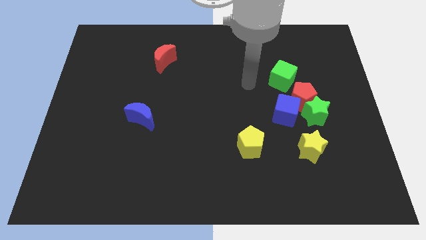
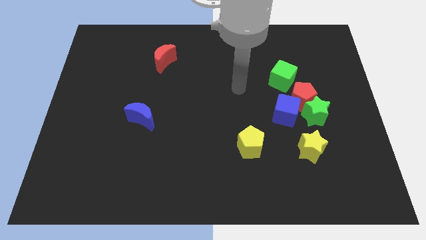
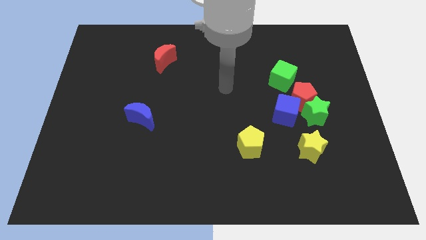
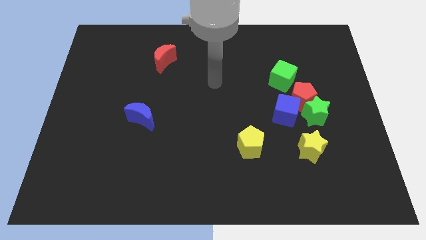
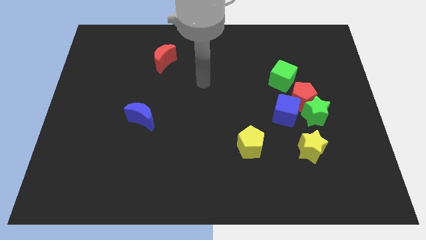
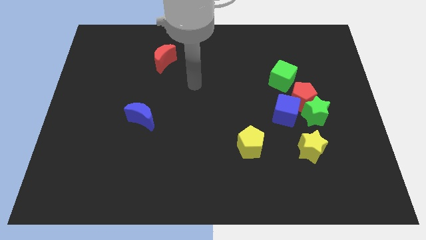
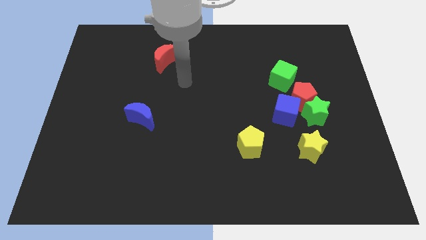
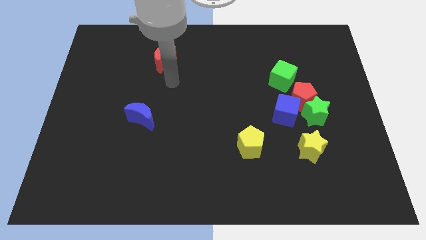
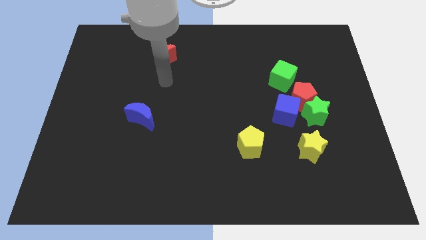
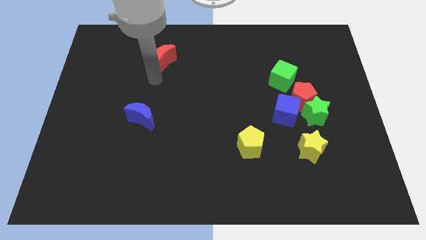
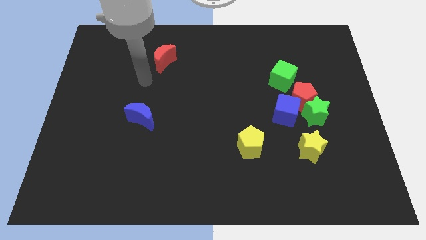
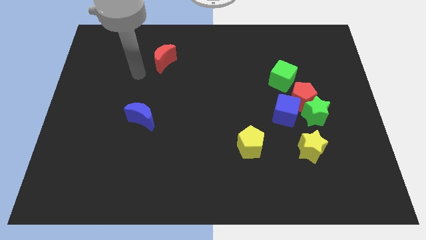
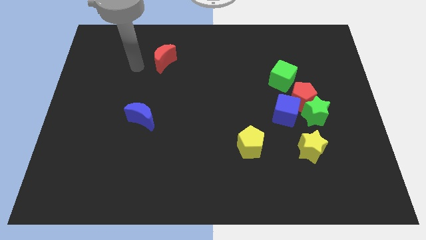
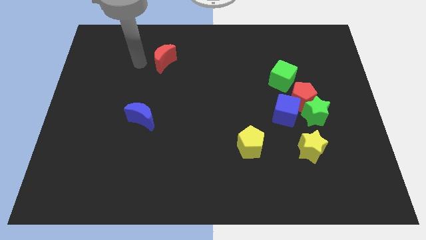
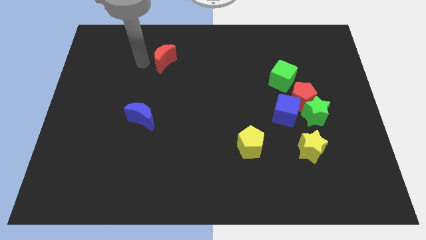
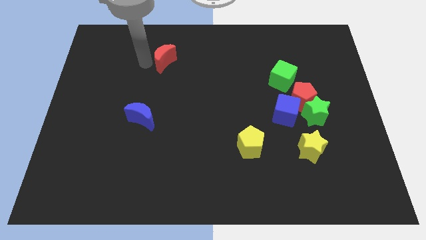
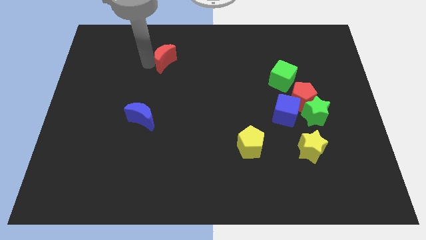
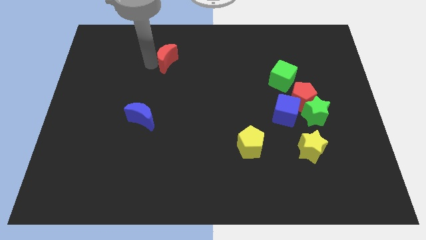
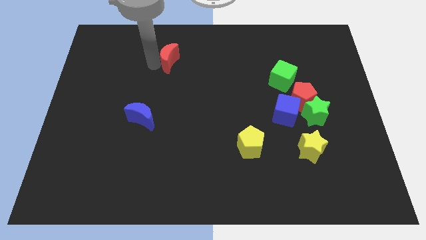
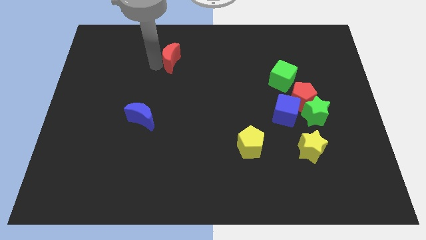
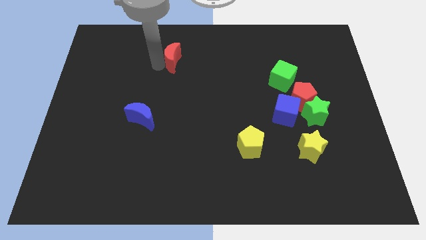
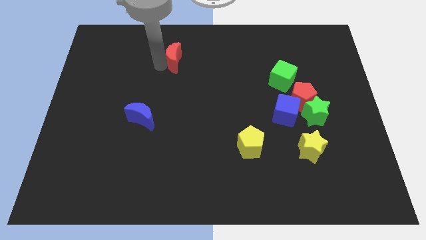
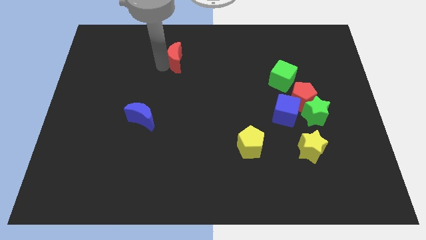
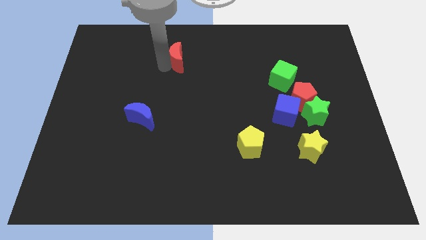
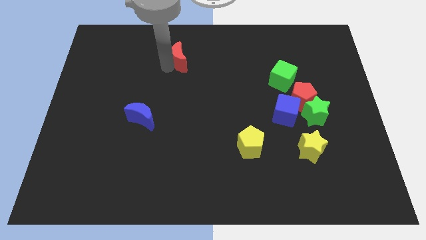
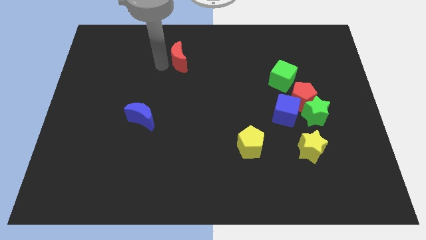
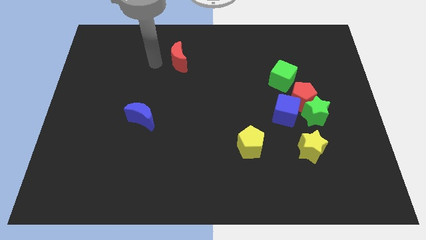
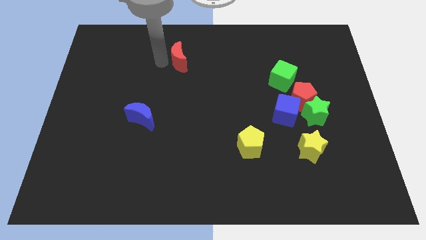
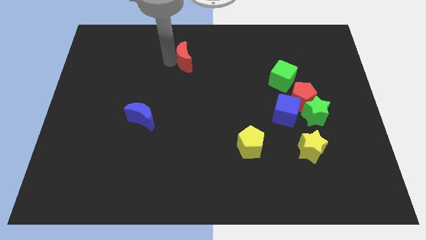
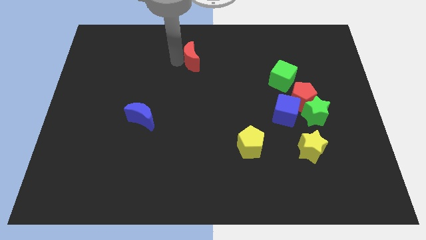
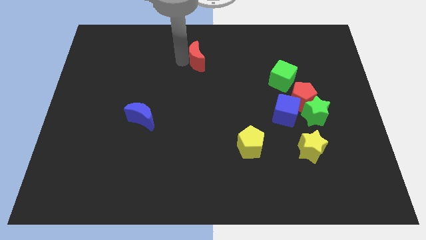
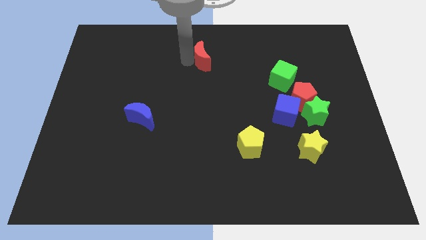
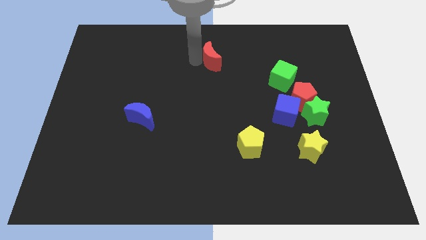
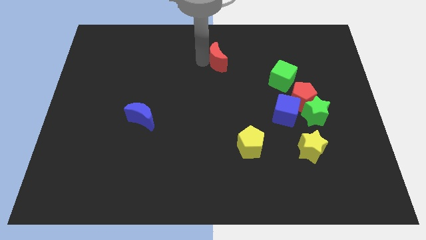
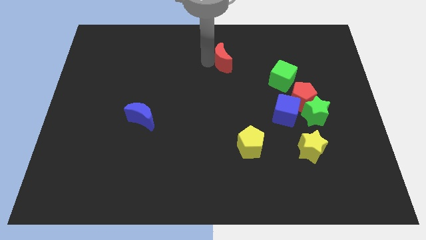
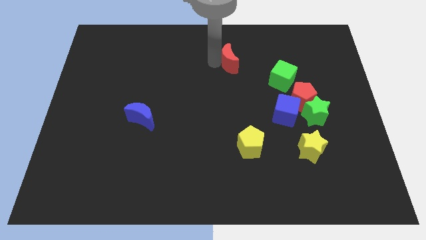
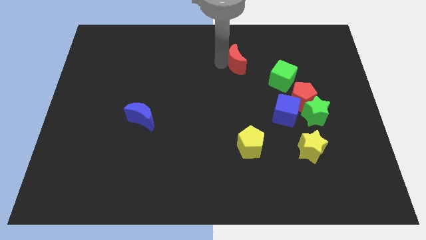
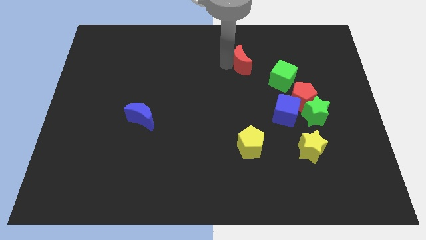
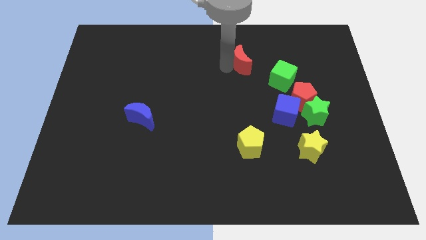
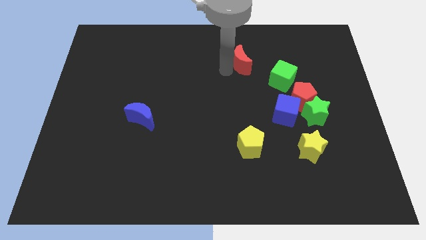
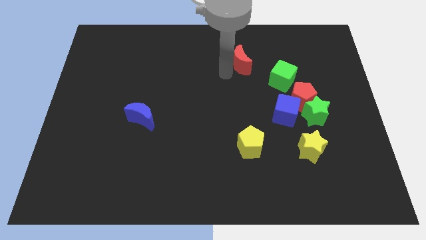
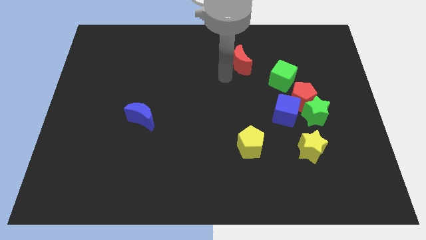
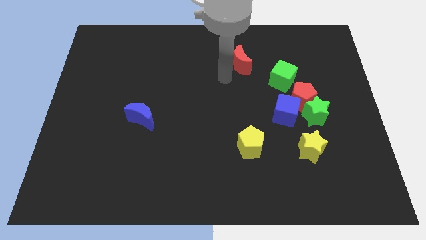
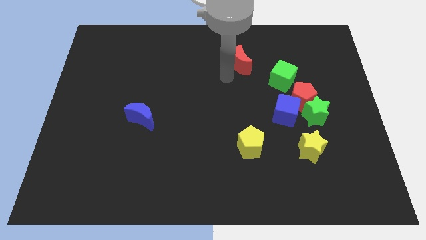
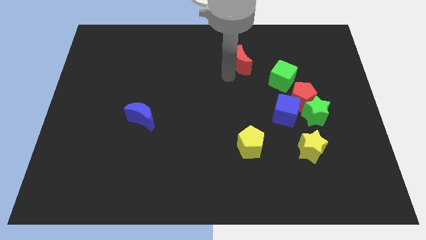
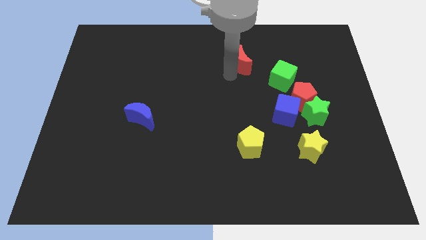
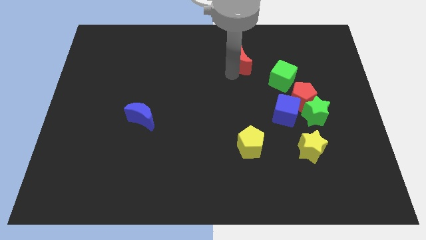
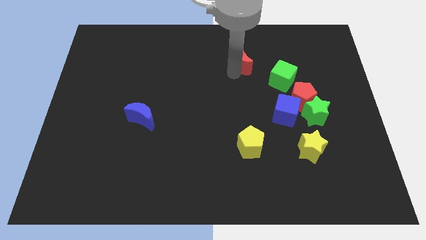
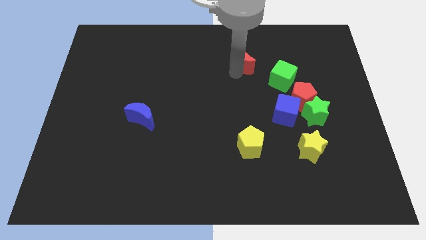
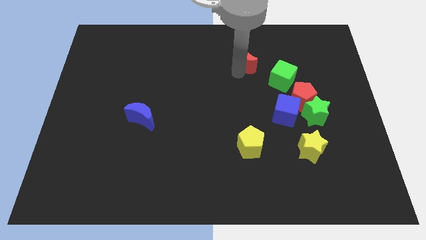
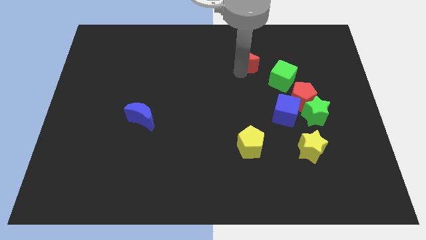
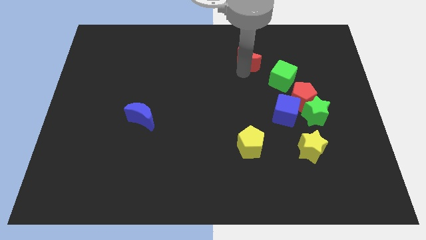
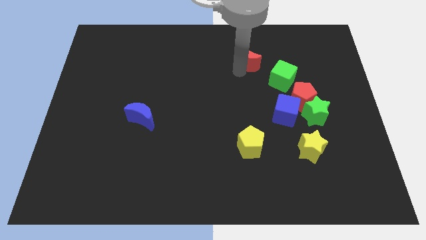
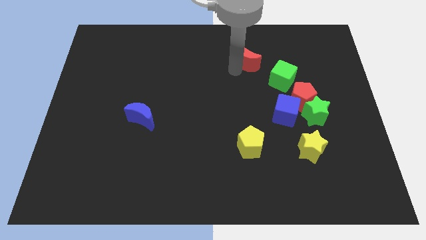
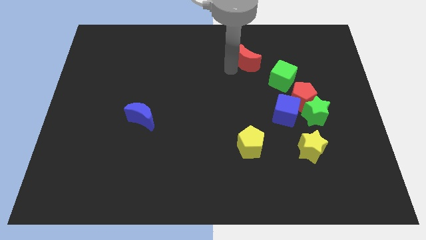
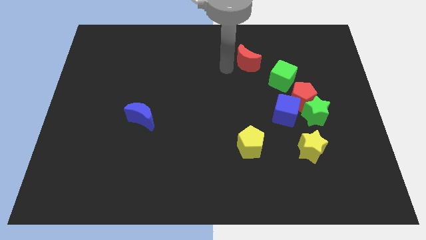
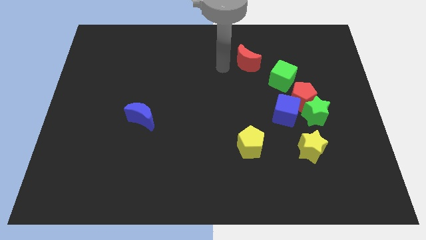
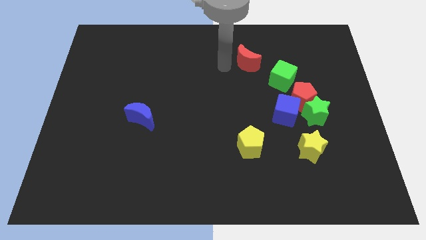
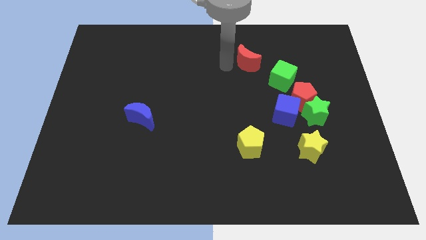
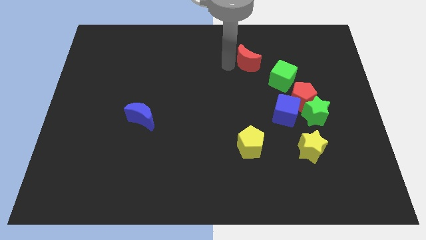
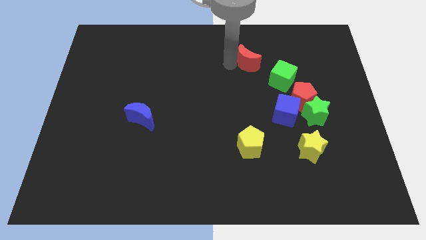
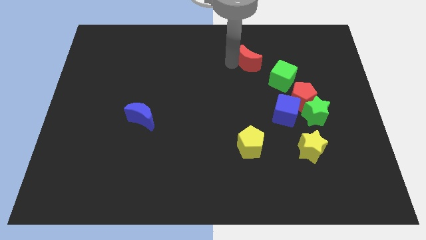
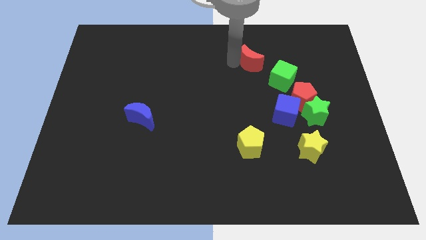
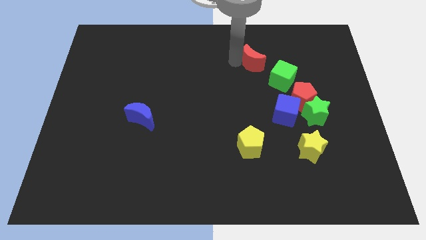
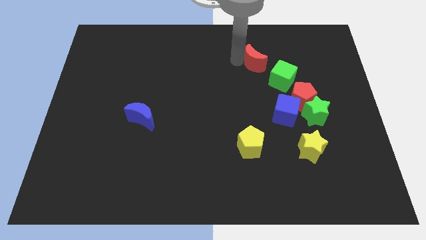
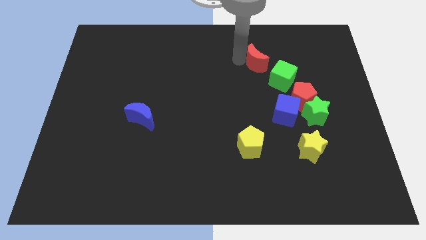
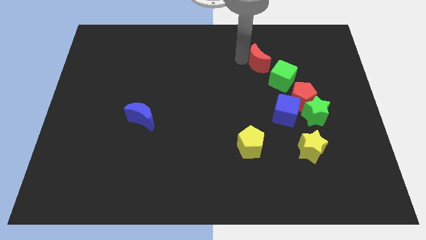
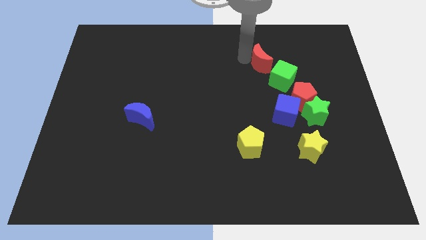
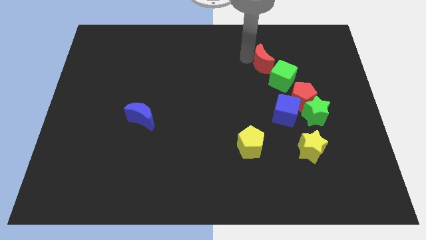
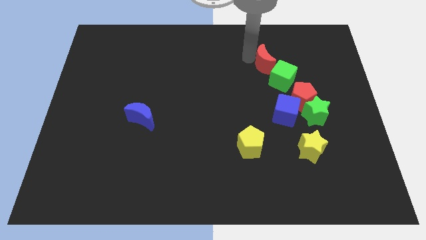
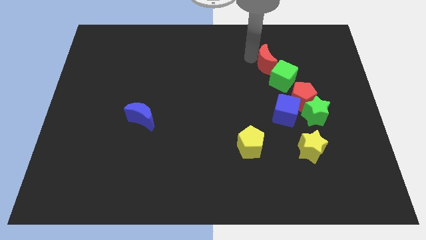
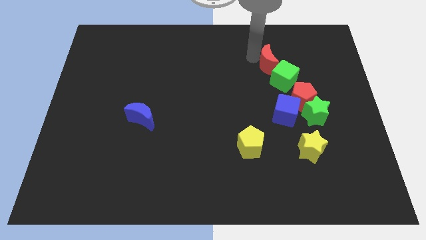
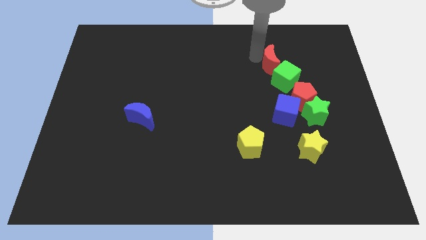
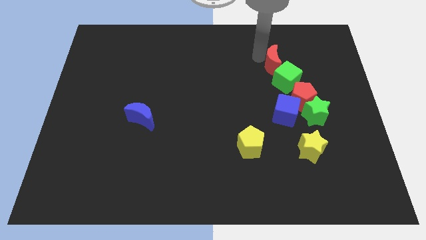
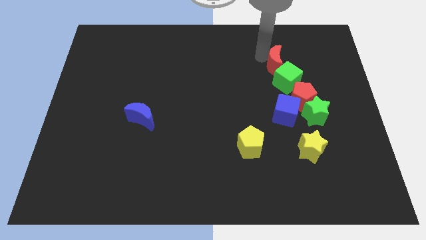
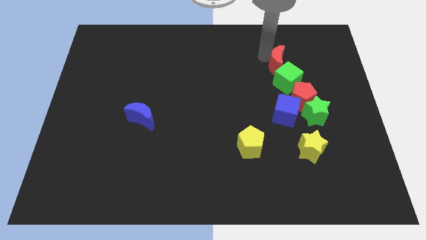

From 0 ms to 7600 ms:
move the red moon to the top of the red pentagon
